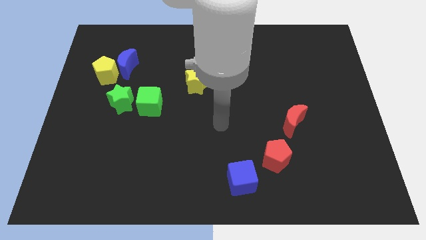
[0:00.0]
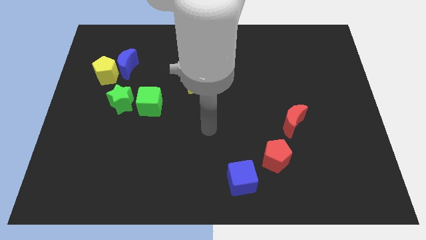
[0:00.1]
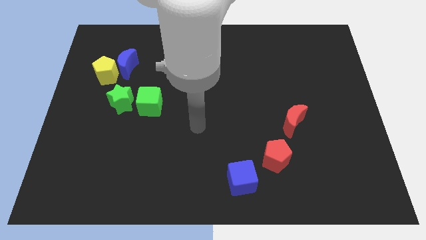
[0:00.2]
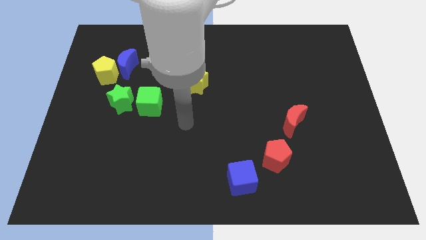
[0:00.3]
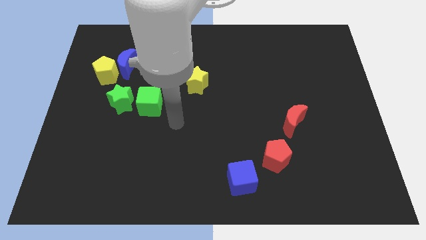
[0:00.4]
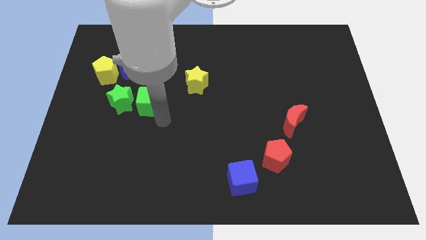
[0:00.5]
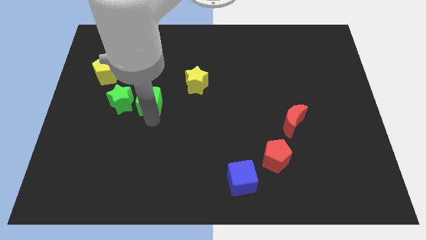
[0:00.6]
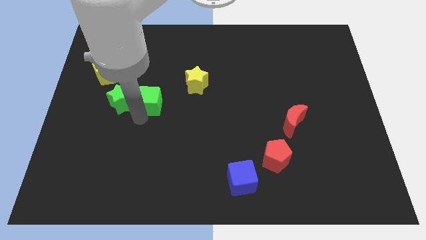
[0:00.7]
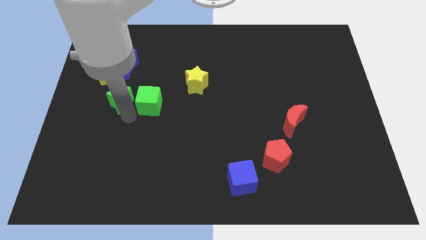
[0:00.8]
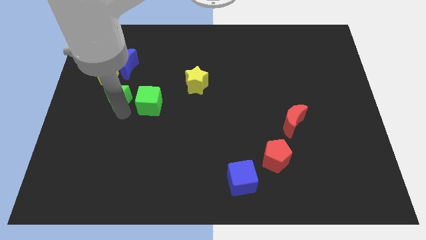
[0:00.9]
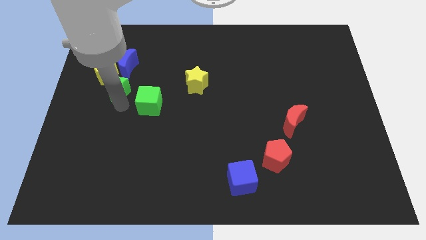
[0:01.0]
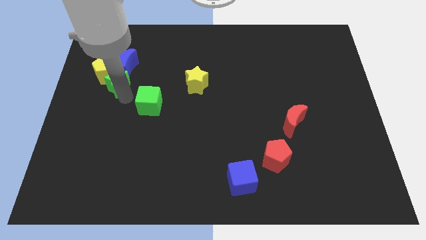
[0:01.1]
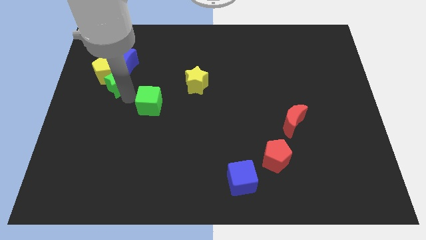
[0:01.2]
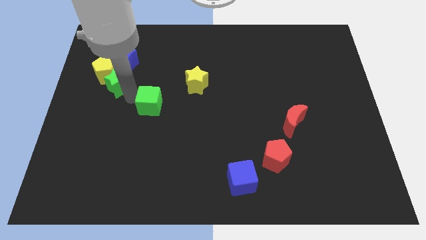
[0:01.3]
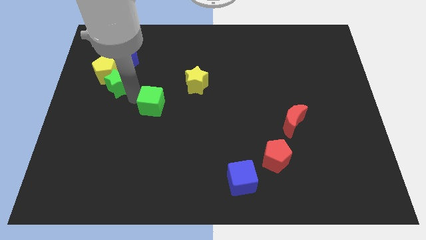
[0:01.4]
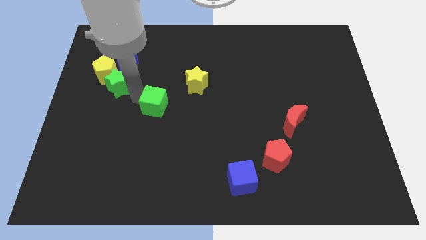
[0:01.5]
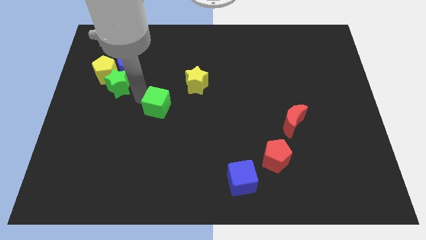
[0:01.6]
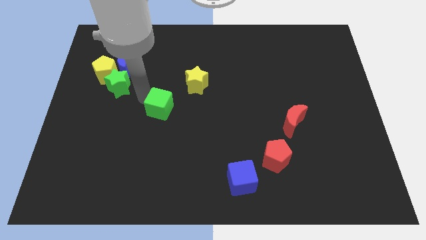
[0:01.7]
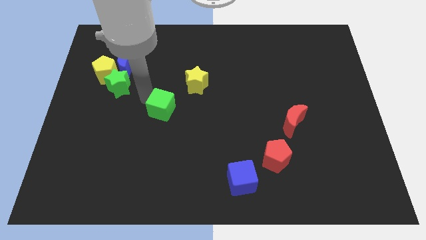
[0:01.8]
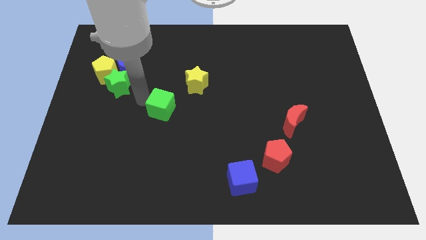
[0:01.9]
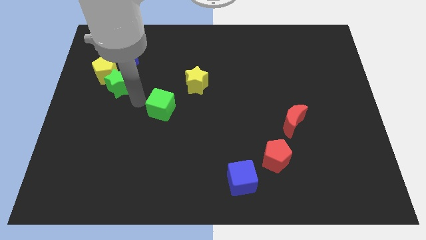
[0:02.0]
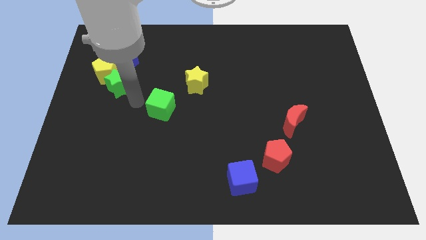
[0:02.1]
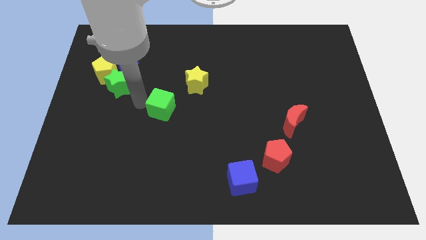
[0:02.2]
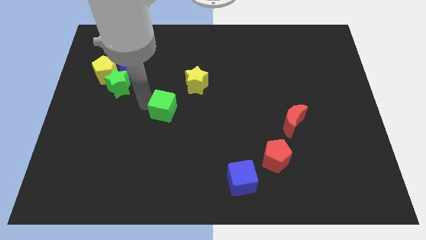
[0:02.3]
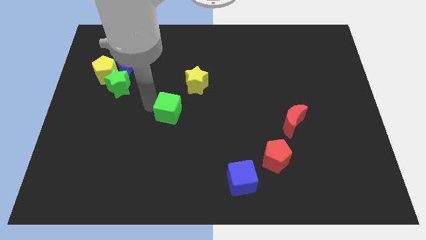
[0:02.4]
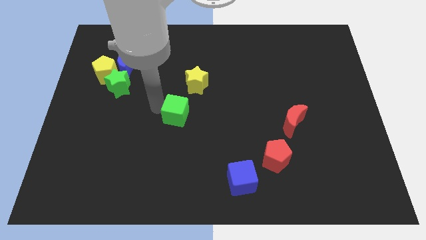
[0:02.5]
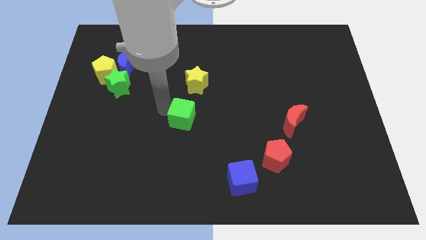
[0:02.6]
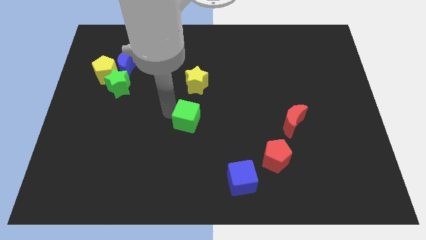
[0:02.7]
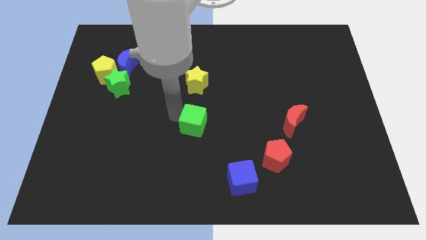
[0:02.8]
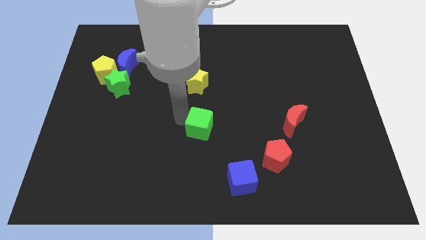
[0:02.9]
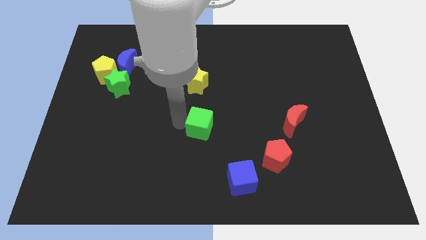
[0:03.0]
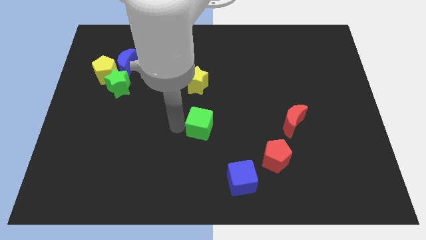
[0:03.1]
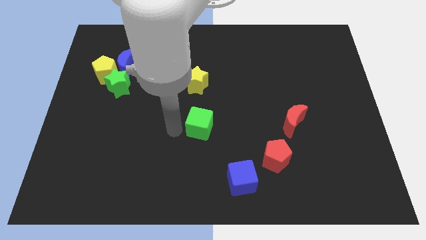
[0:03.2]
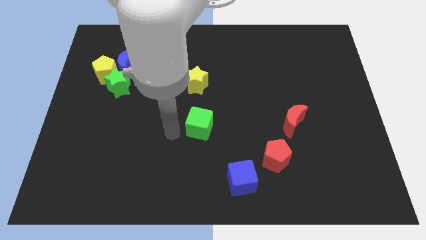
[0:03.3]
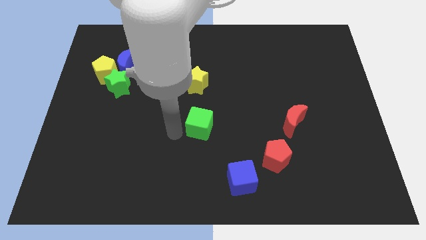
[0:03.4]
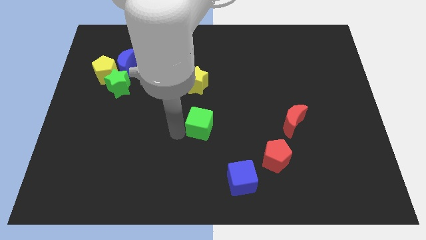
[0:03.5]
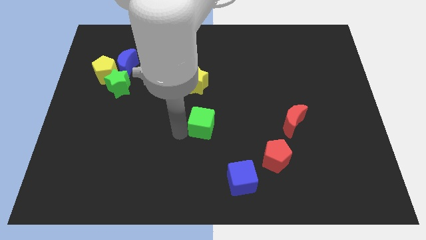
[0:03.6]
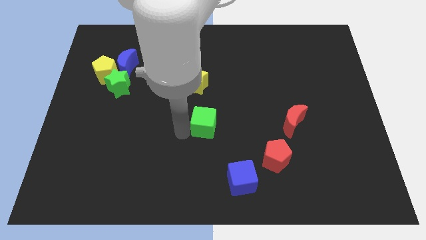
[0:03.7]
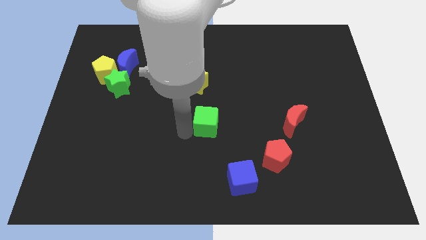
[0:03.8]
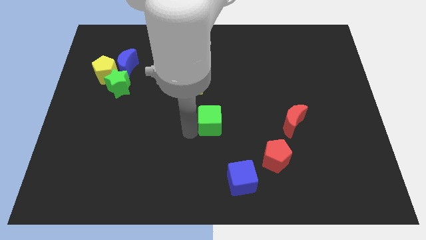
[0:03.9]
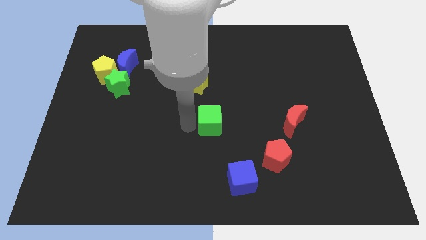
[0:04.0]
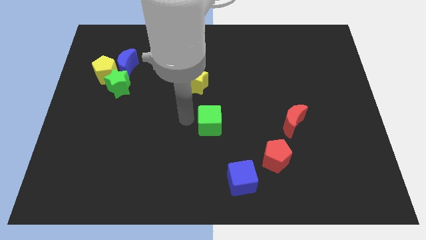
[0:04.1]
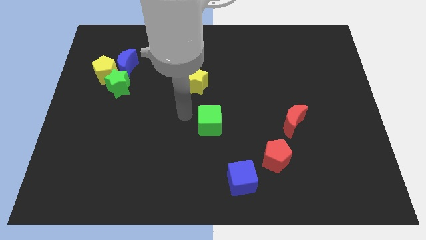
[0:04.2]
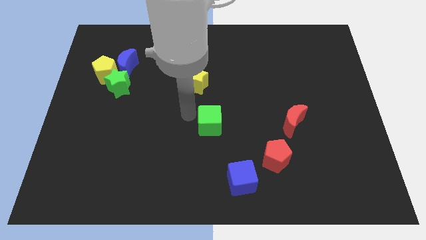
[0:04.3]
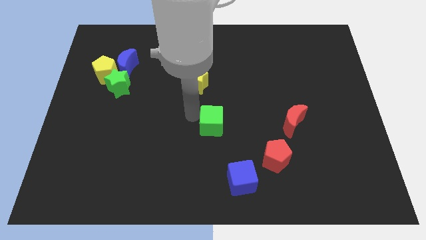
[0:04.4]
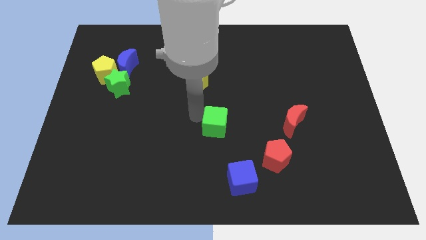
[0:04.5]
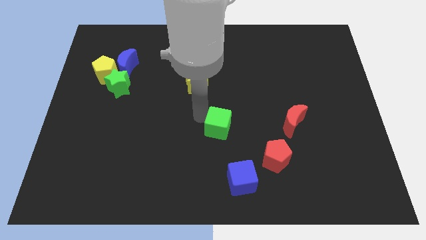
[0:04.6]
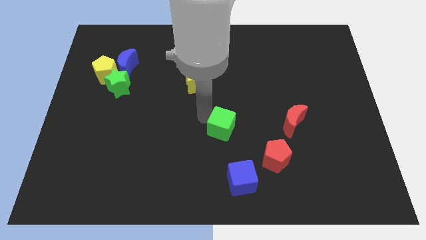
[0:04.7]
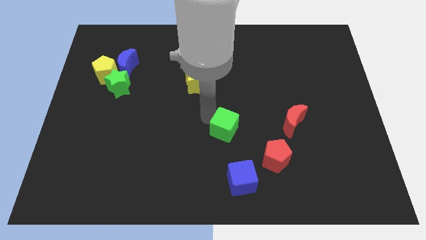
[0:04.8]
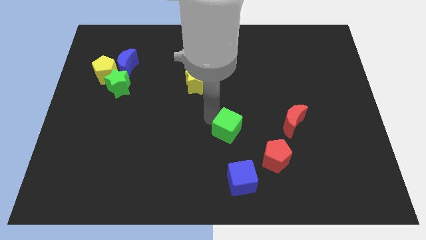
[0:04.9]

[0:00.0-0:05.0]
slide the green cube to the top left of the red pentagon

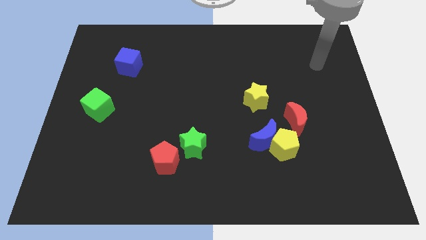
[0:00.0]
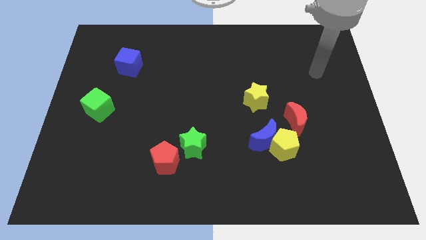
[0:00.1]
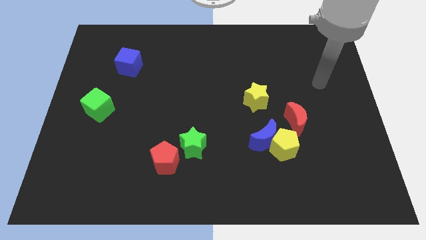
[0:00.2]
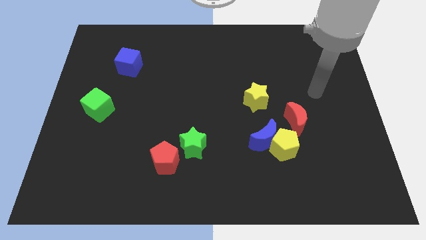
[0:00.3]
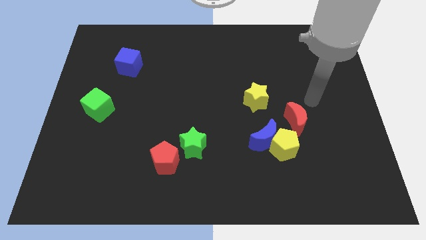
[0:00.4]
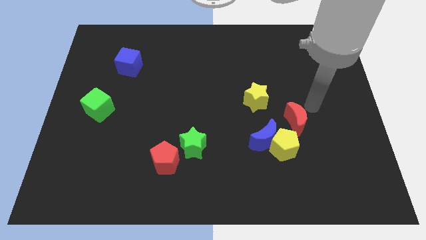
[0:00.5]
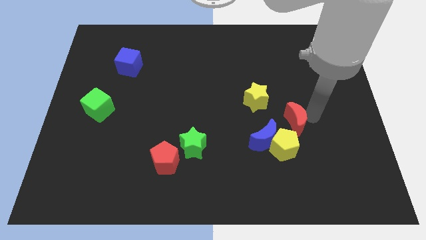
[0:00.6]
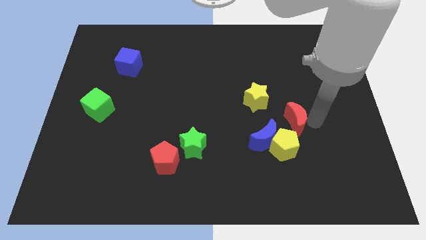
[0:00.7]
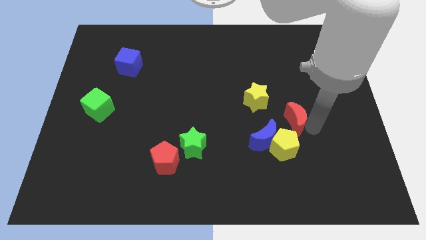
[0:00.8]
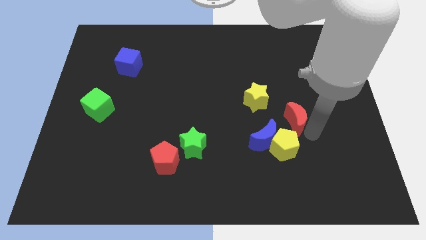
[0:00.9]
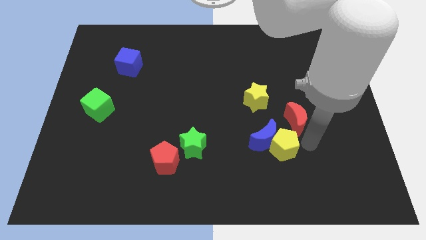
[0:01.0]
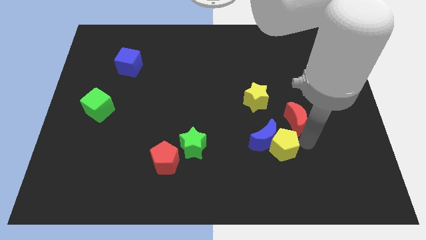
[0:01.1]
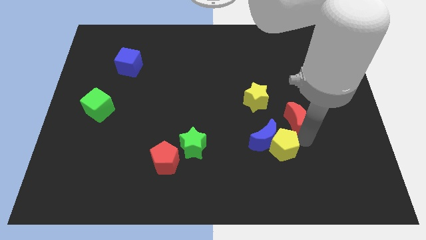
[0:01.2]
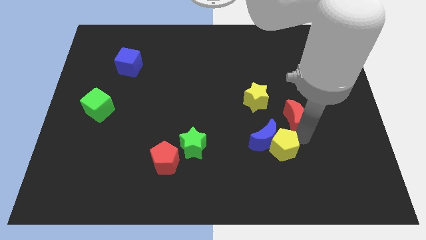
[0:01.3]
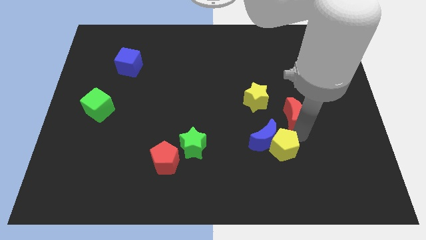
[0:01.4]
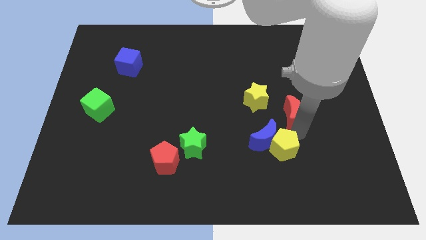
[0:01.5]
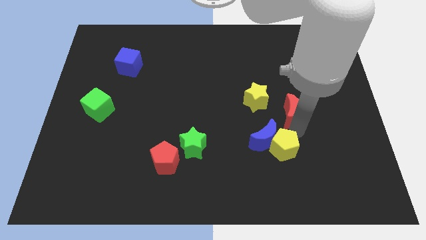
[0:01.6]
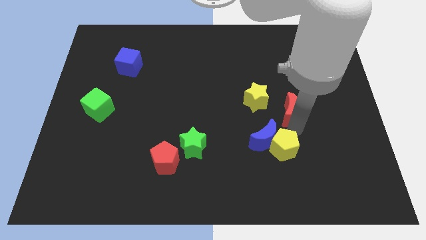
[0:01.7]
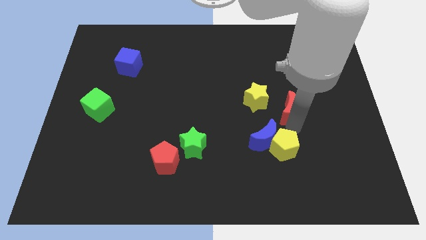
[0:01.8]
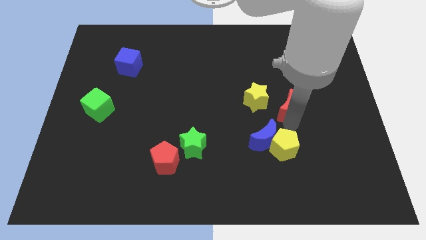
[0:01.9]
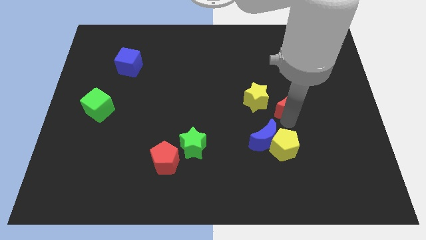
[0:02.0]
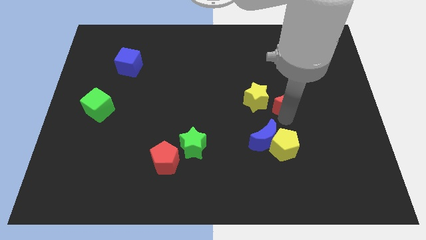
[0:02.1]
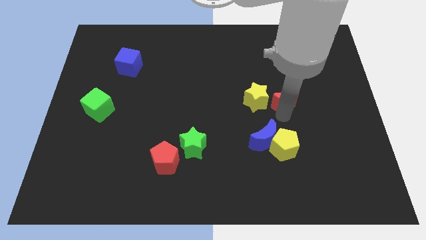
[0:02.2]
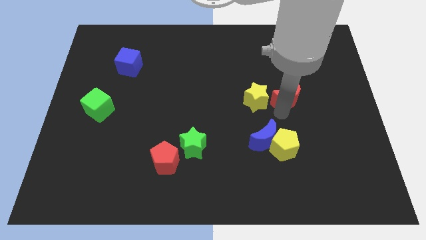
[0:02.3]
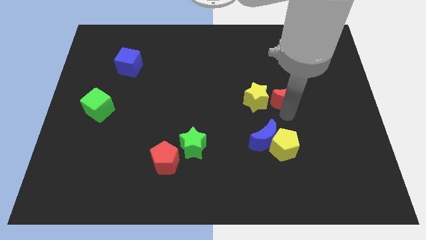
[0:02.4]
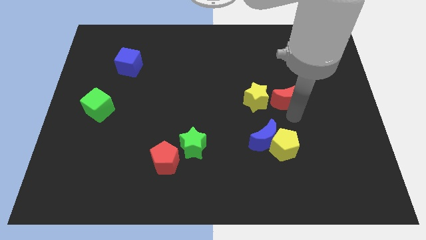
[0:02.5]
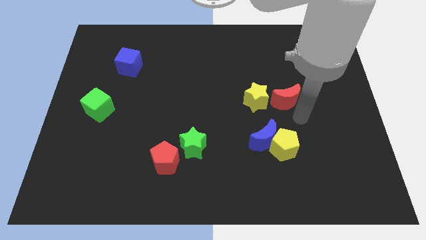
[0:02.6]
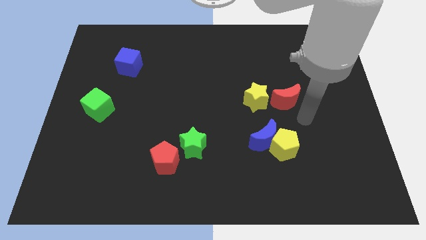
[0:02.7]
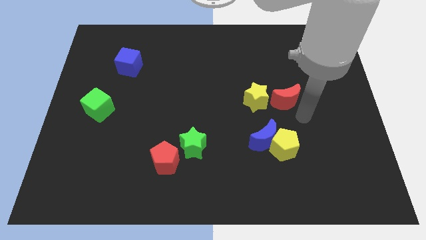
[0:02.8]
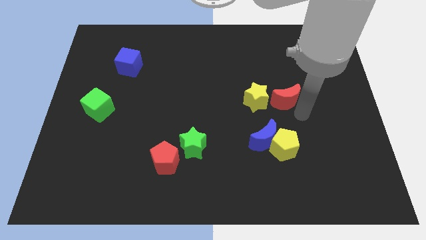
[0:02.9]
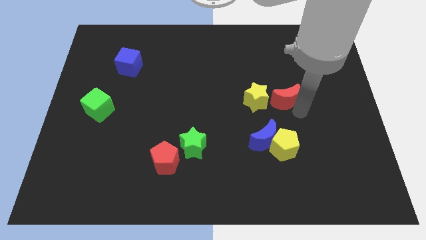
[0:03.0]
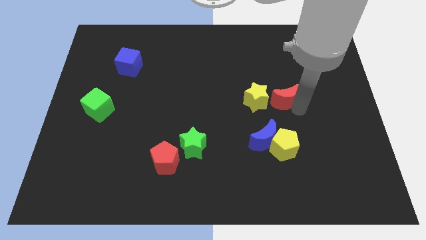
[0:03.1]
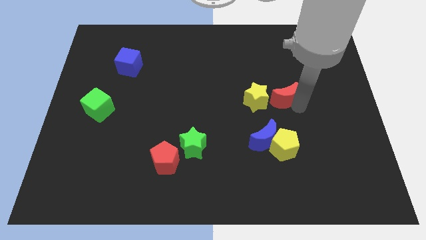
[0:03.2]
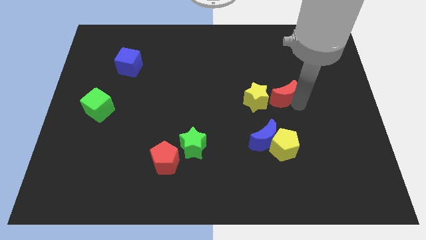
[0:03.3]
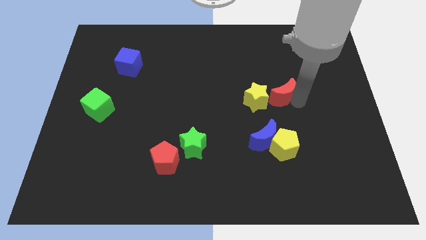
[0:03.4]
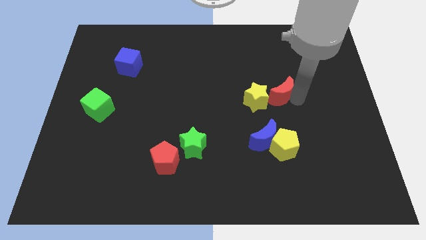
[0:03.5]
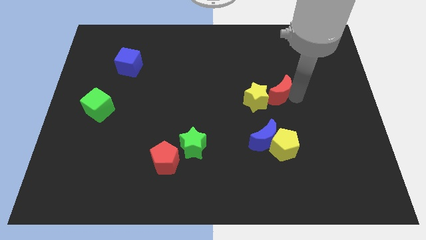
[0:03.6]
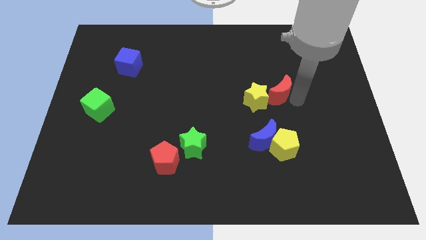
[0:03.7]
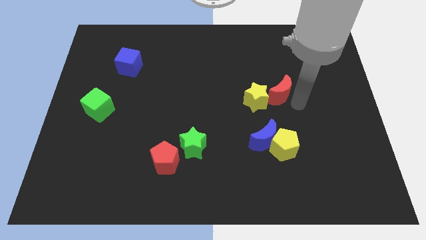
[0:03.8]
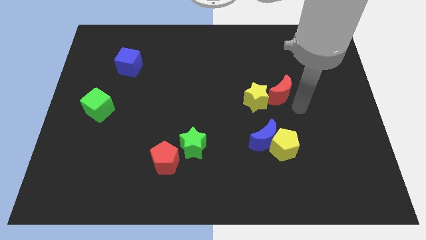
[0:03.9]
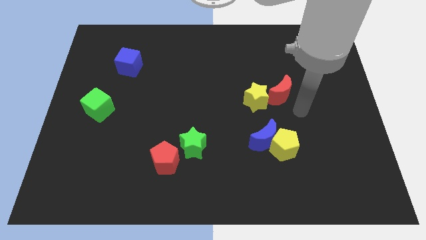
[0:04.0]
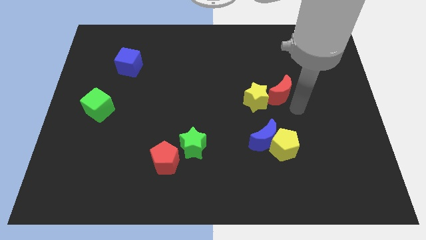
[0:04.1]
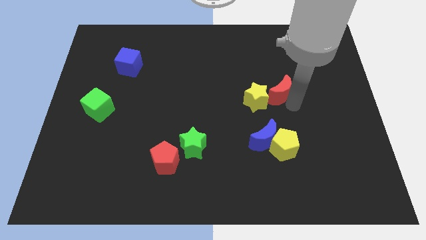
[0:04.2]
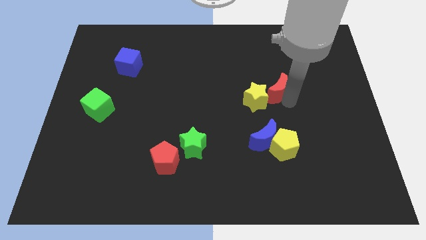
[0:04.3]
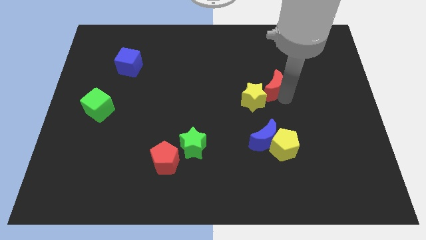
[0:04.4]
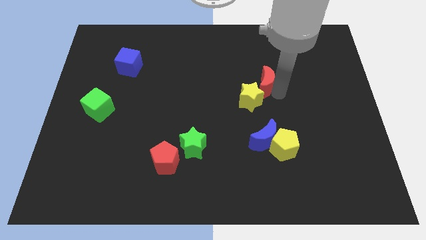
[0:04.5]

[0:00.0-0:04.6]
slide the red moon to the top of the yellow star
